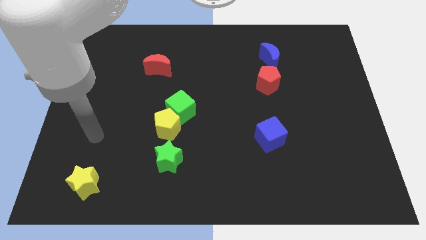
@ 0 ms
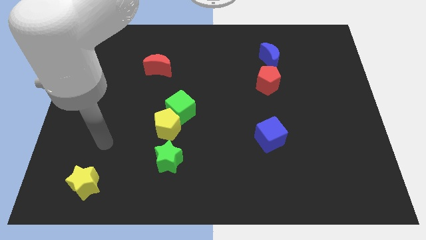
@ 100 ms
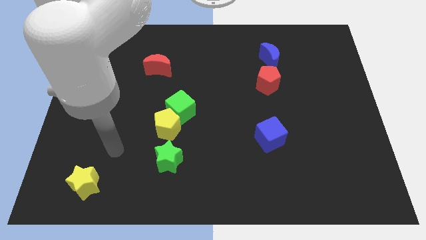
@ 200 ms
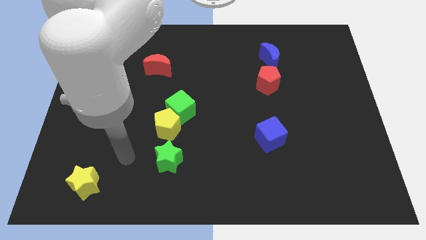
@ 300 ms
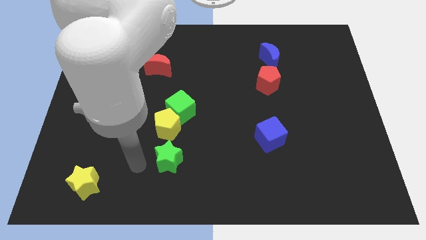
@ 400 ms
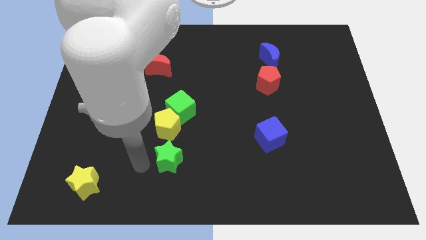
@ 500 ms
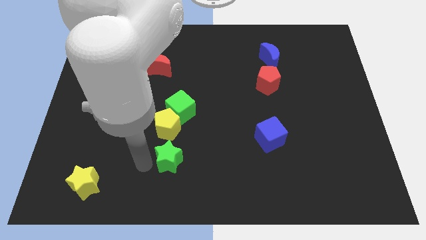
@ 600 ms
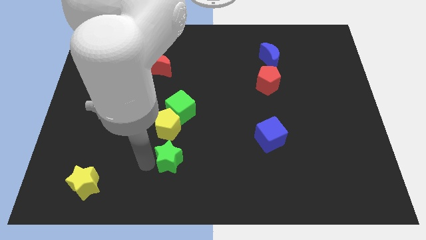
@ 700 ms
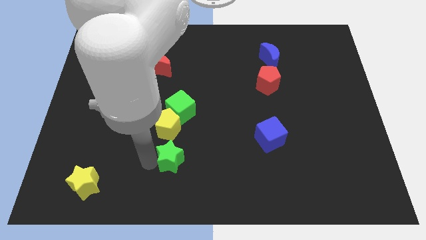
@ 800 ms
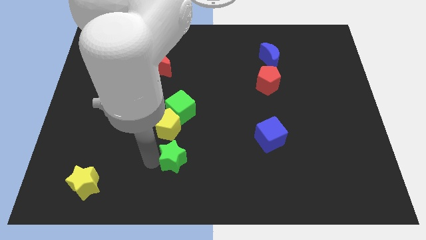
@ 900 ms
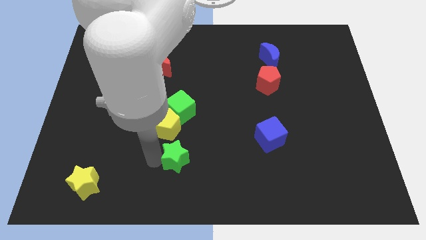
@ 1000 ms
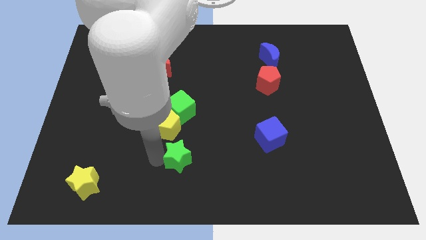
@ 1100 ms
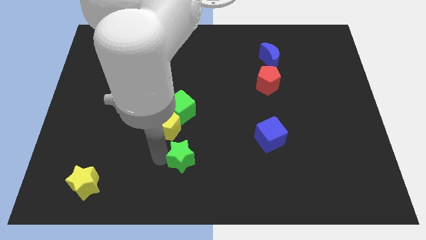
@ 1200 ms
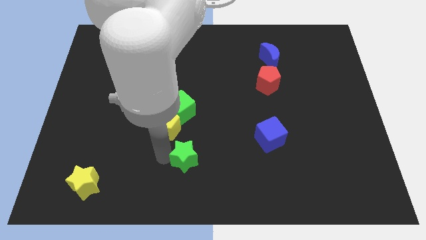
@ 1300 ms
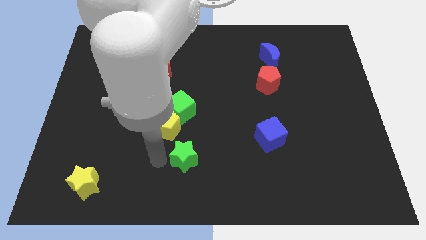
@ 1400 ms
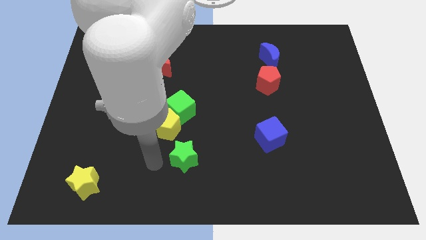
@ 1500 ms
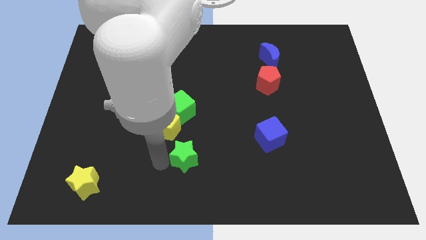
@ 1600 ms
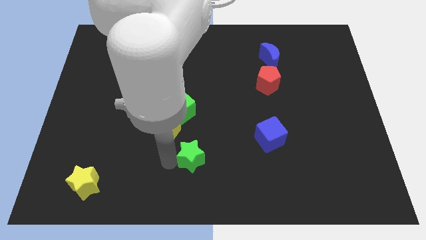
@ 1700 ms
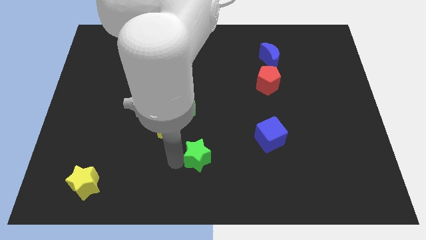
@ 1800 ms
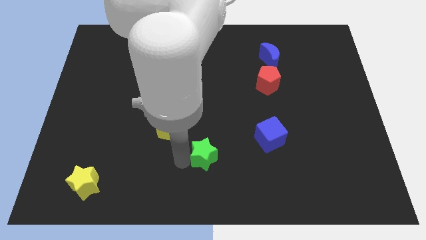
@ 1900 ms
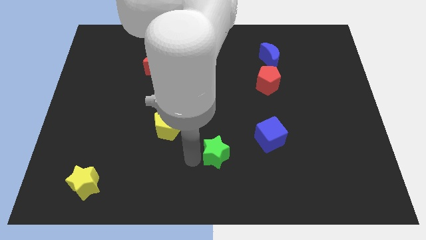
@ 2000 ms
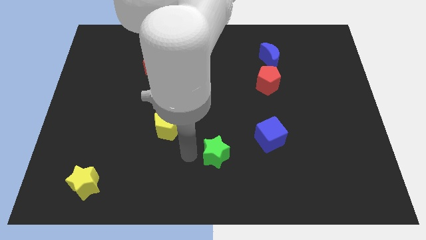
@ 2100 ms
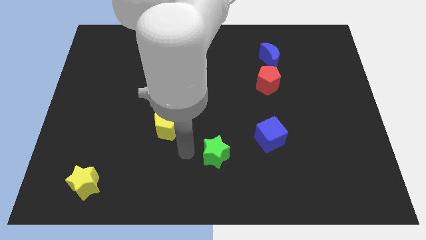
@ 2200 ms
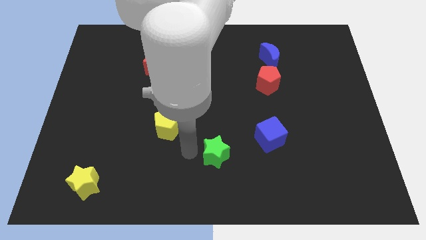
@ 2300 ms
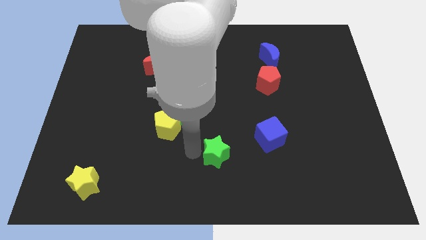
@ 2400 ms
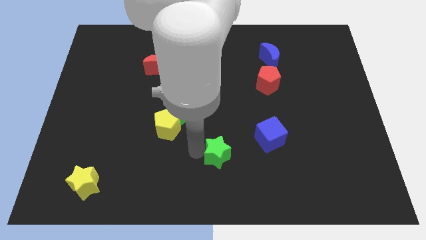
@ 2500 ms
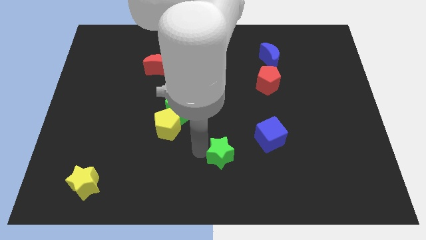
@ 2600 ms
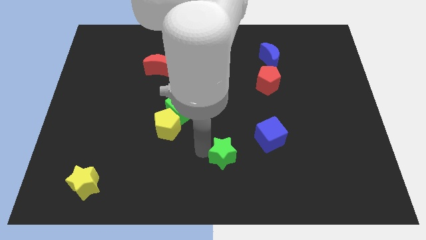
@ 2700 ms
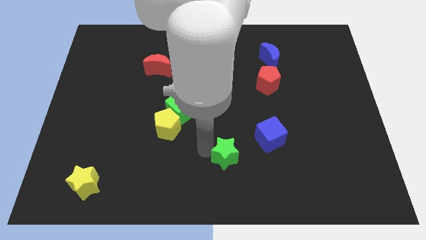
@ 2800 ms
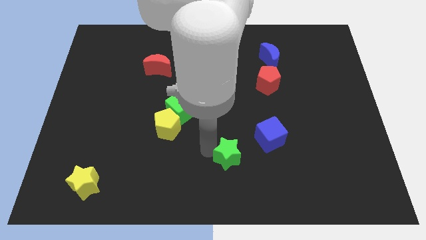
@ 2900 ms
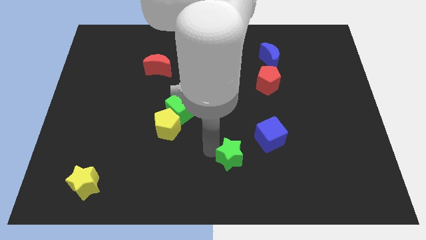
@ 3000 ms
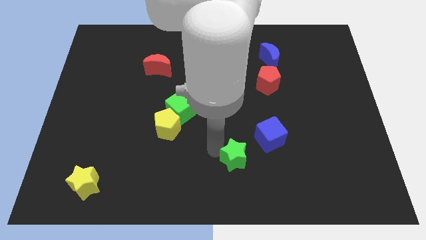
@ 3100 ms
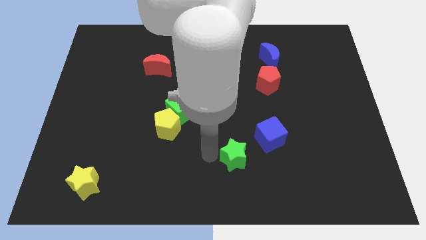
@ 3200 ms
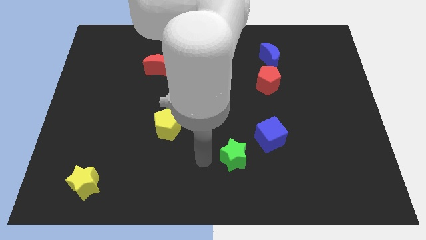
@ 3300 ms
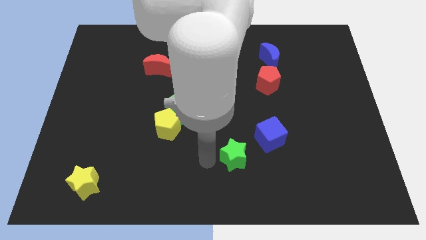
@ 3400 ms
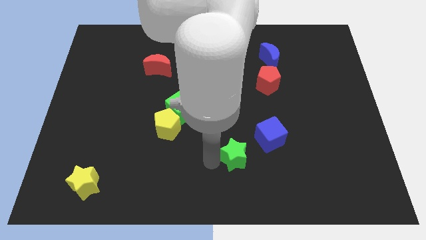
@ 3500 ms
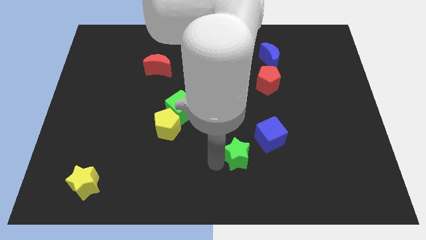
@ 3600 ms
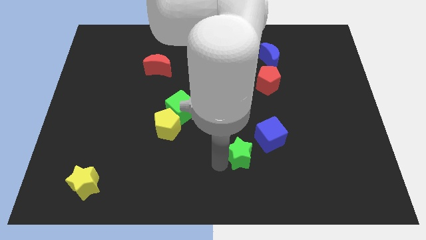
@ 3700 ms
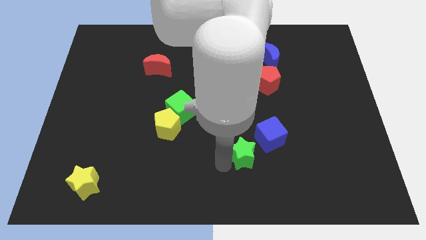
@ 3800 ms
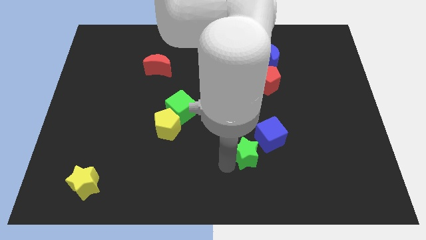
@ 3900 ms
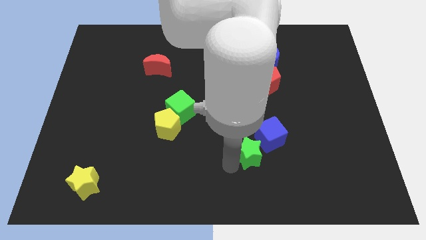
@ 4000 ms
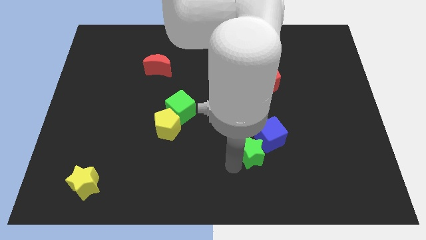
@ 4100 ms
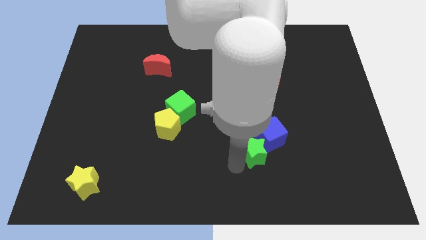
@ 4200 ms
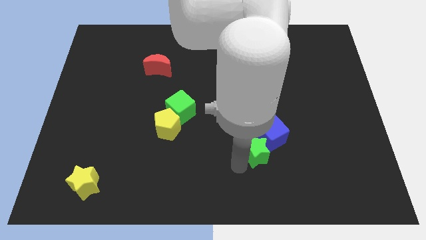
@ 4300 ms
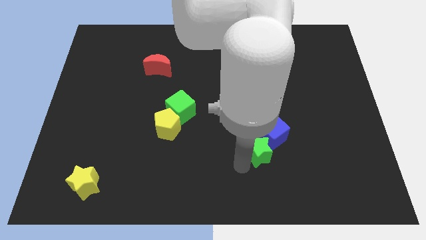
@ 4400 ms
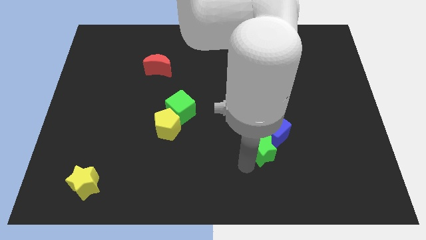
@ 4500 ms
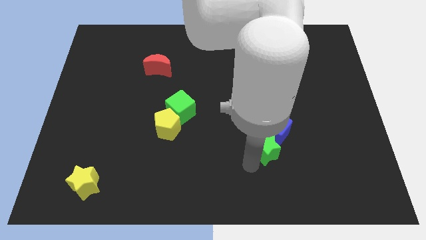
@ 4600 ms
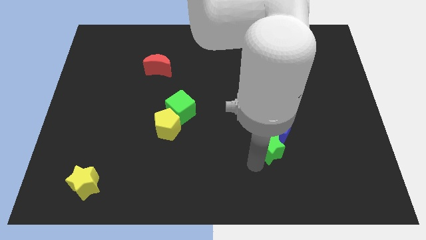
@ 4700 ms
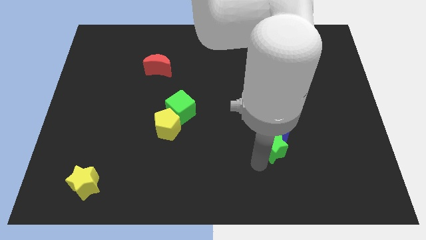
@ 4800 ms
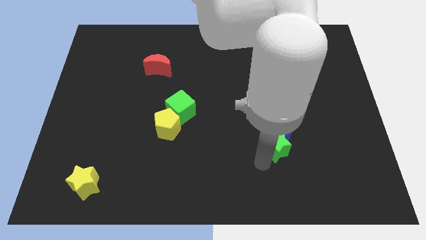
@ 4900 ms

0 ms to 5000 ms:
push the green star to the bottom right side of the blue cube

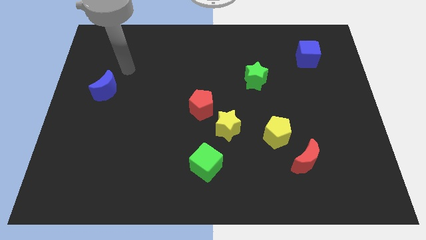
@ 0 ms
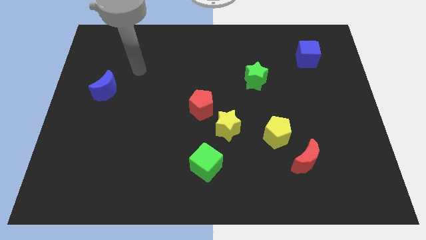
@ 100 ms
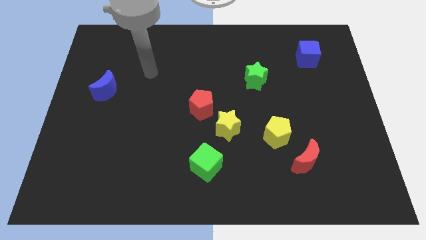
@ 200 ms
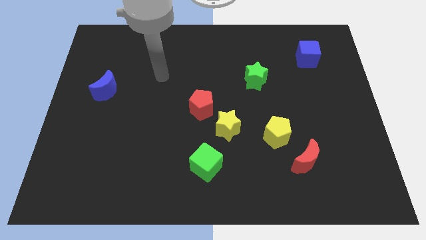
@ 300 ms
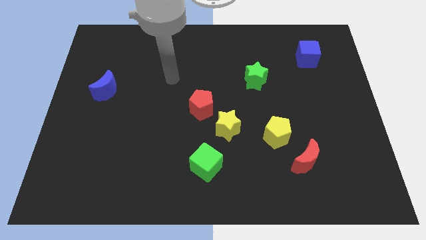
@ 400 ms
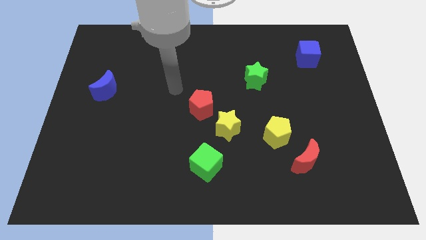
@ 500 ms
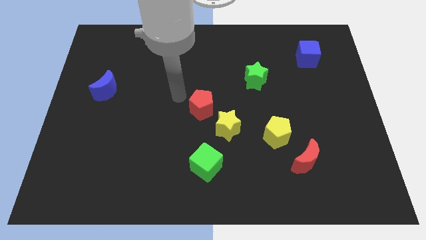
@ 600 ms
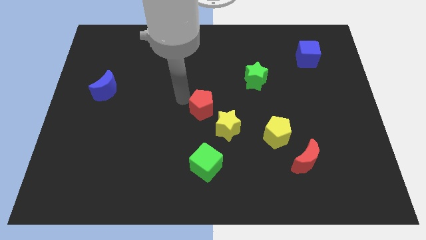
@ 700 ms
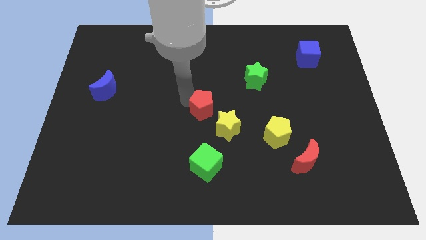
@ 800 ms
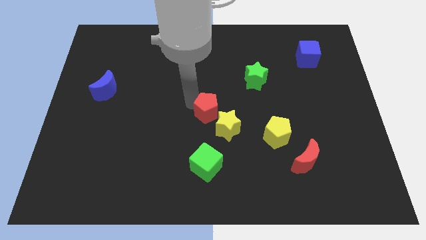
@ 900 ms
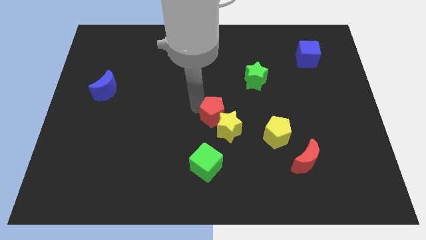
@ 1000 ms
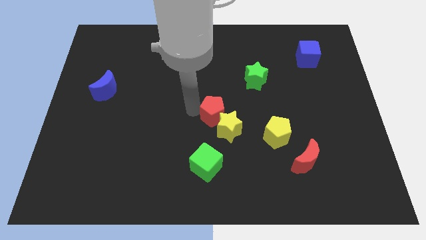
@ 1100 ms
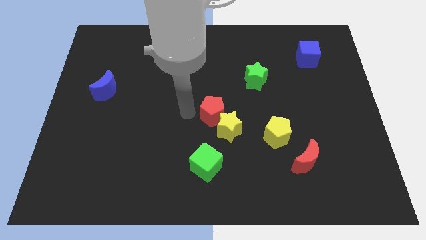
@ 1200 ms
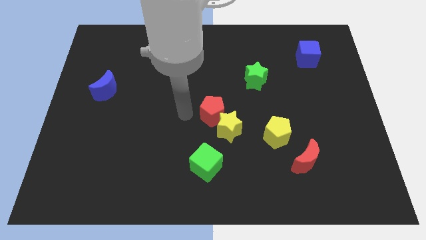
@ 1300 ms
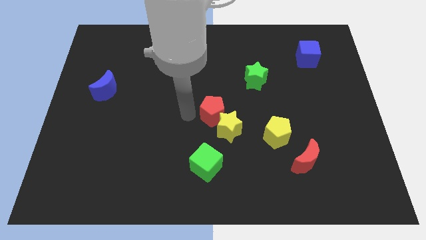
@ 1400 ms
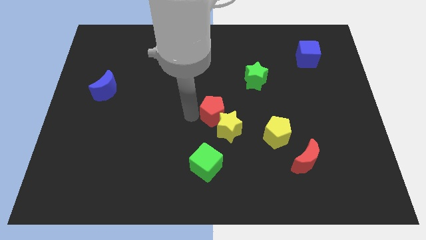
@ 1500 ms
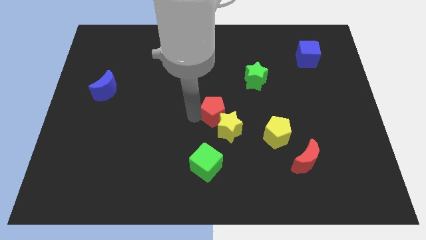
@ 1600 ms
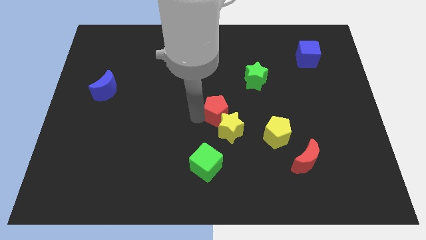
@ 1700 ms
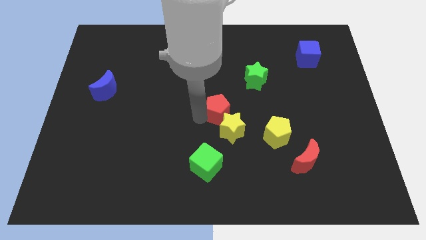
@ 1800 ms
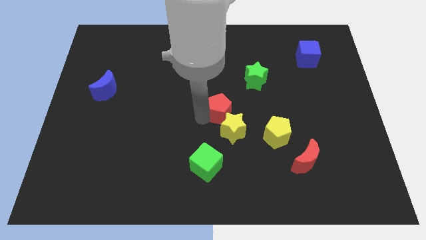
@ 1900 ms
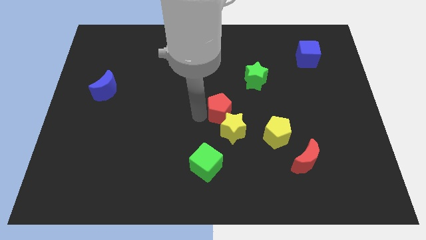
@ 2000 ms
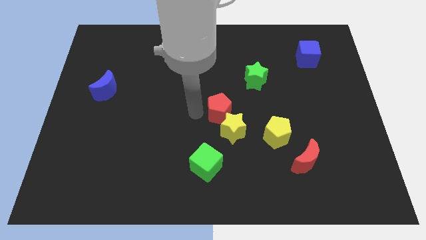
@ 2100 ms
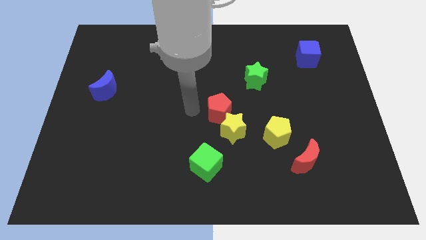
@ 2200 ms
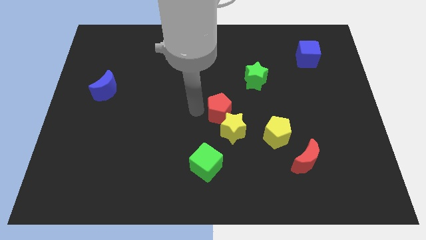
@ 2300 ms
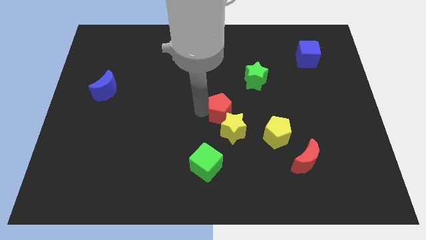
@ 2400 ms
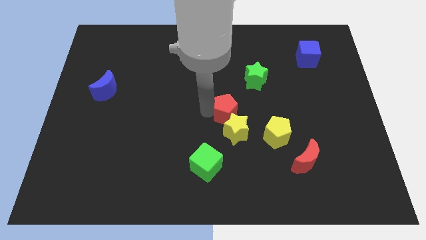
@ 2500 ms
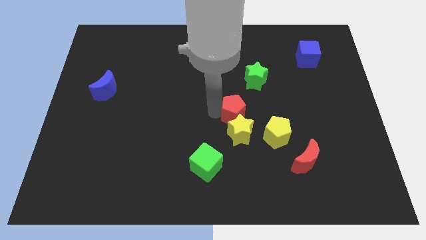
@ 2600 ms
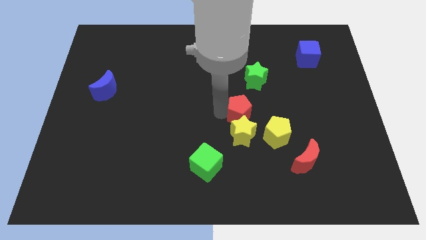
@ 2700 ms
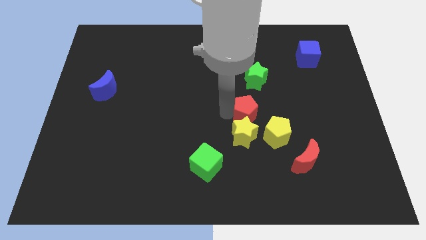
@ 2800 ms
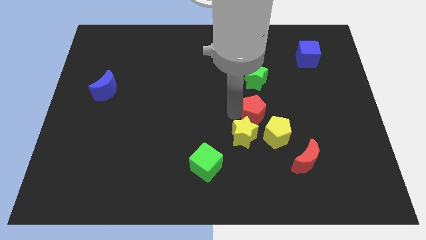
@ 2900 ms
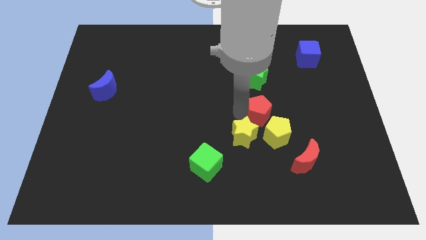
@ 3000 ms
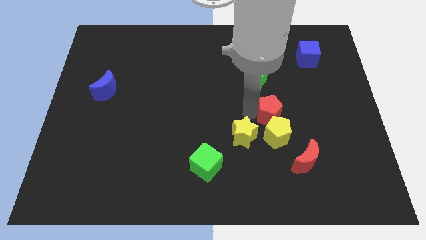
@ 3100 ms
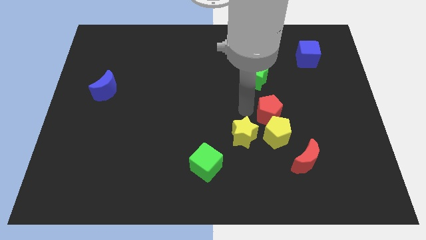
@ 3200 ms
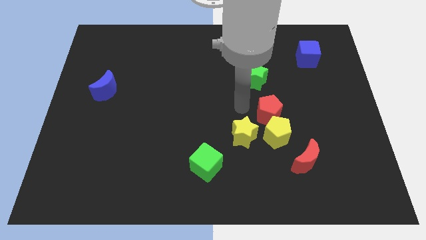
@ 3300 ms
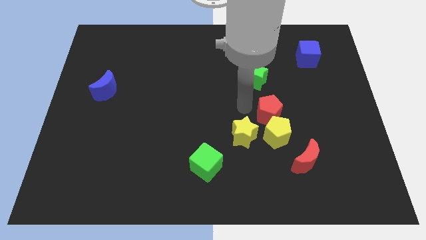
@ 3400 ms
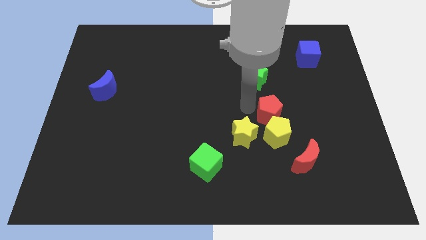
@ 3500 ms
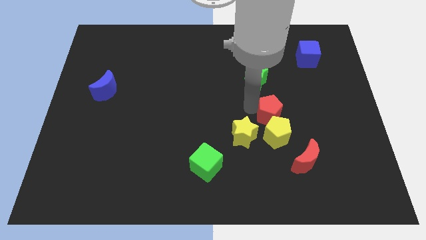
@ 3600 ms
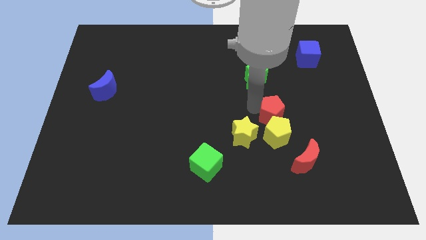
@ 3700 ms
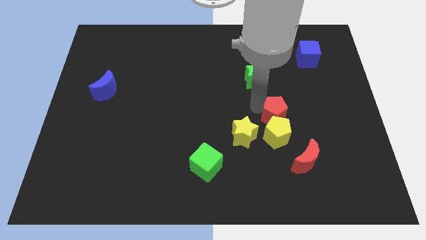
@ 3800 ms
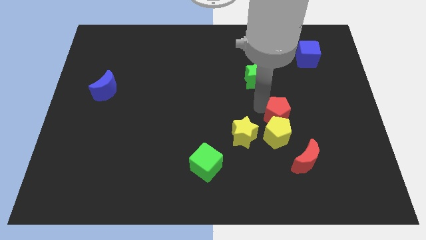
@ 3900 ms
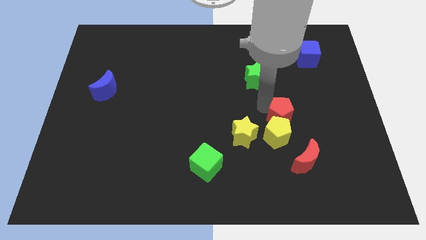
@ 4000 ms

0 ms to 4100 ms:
slide the red pentagon above the red moon
